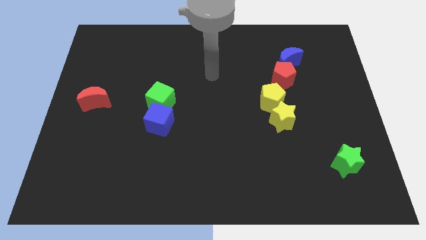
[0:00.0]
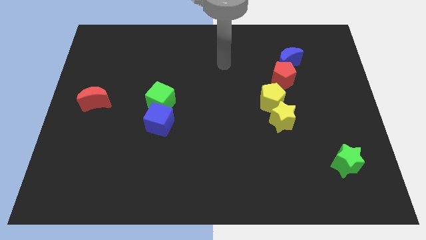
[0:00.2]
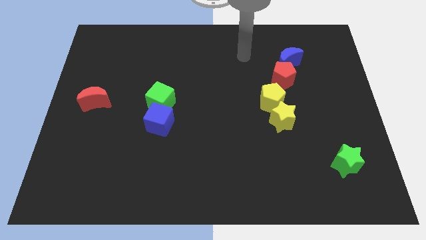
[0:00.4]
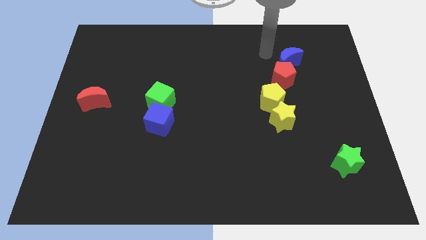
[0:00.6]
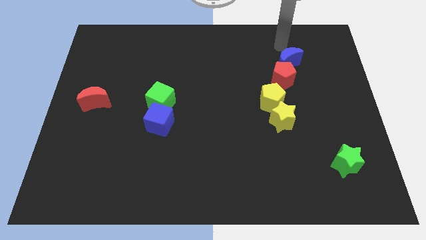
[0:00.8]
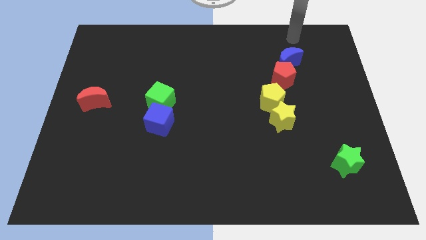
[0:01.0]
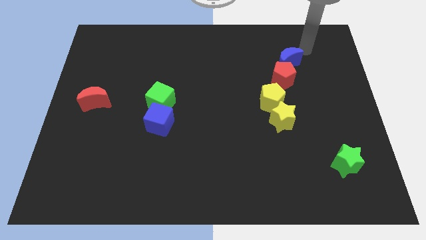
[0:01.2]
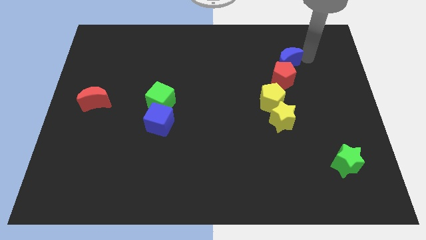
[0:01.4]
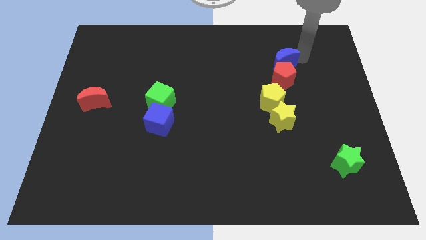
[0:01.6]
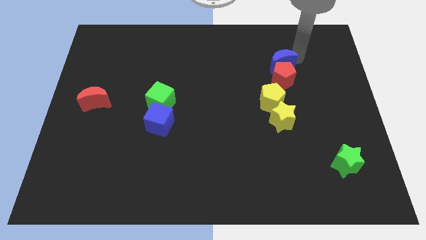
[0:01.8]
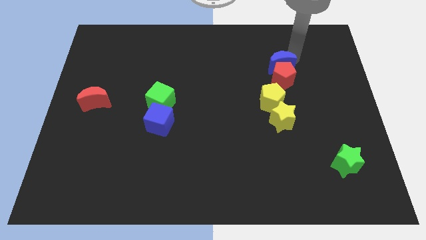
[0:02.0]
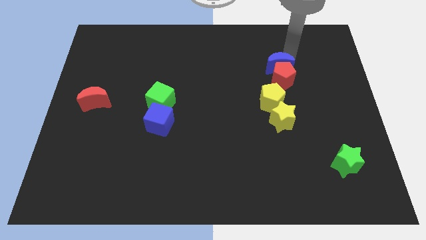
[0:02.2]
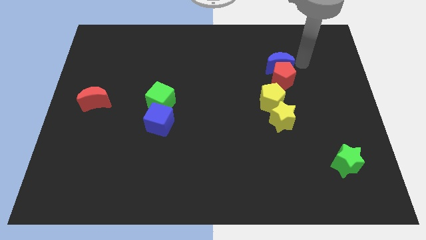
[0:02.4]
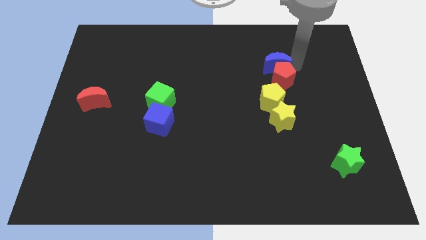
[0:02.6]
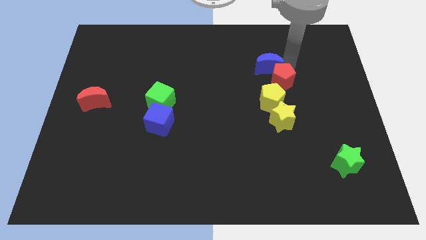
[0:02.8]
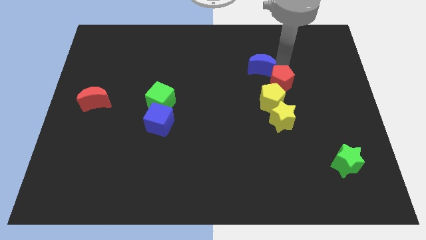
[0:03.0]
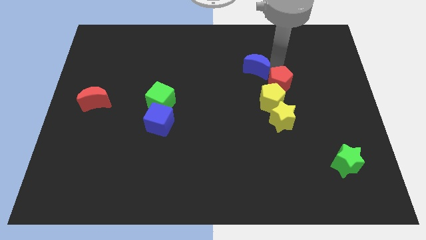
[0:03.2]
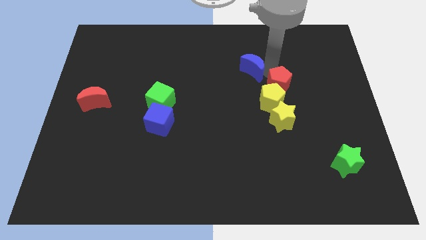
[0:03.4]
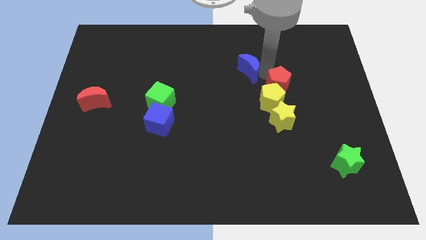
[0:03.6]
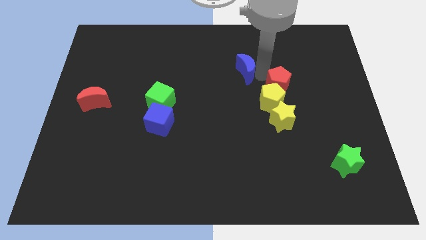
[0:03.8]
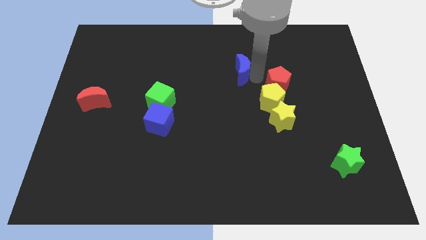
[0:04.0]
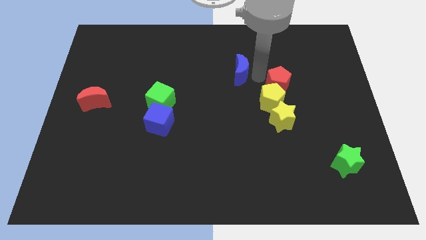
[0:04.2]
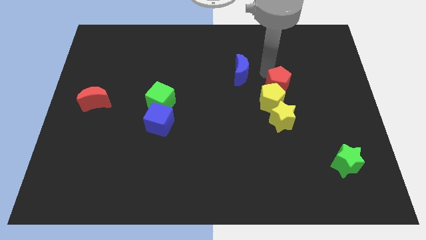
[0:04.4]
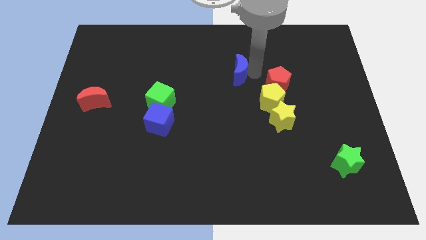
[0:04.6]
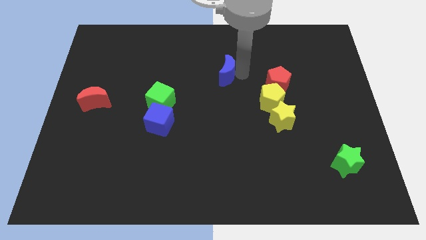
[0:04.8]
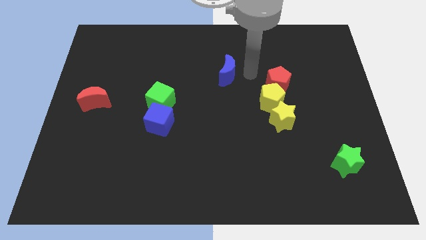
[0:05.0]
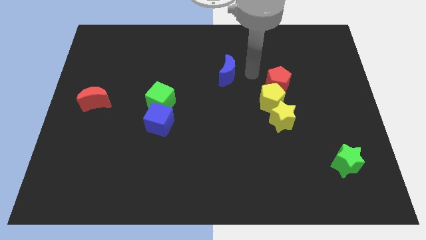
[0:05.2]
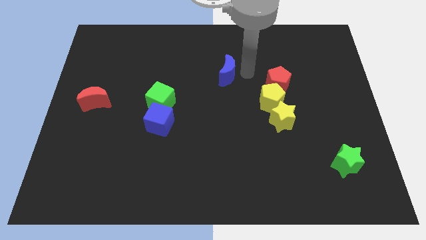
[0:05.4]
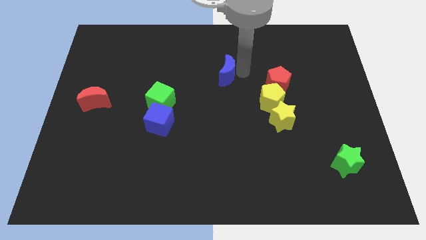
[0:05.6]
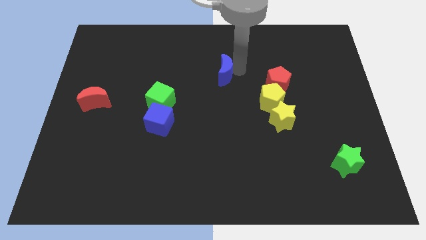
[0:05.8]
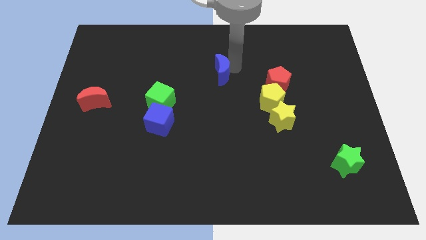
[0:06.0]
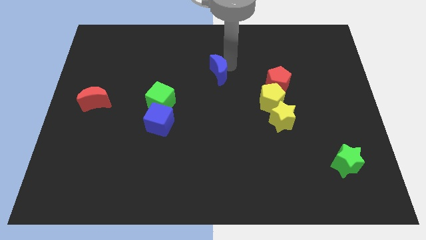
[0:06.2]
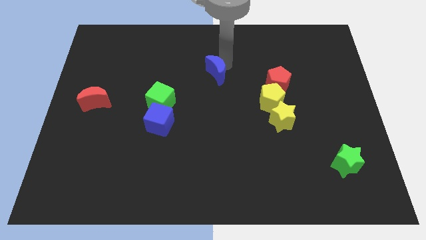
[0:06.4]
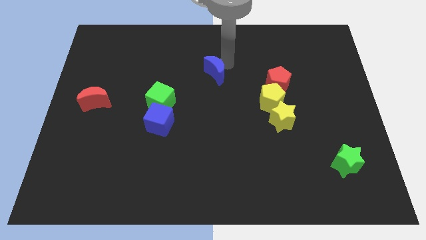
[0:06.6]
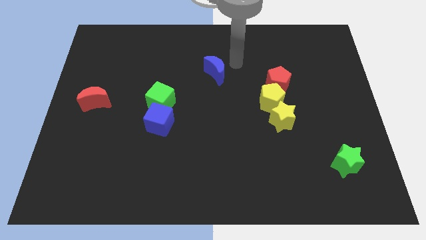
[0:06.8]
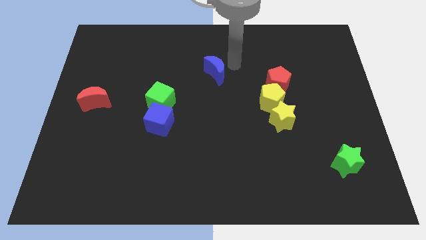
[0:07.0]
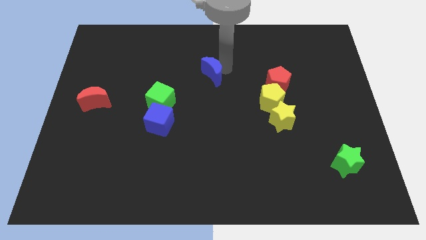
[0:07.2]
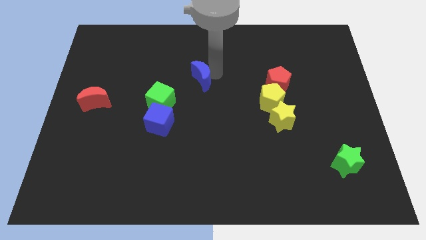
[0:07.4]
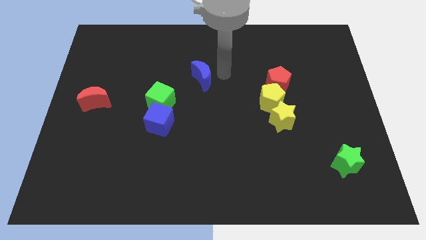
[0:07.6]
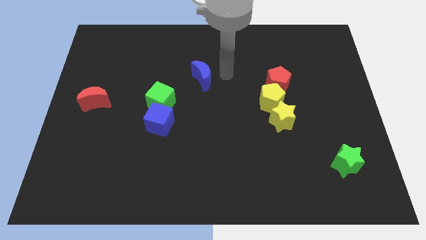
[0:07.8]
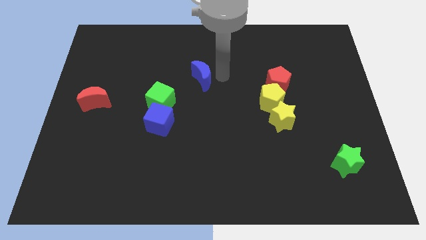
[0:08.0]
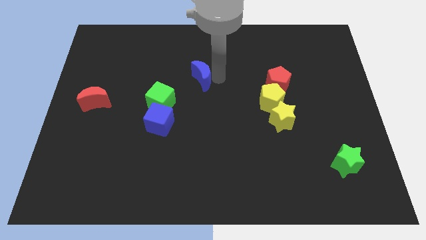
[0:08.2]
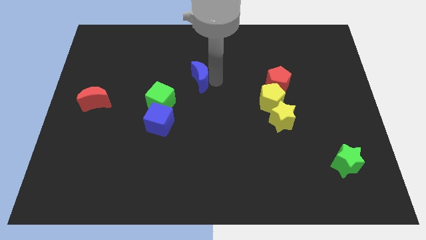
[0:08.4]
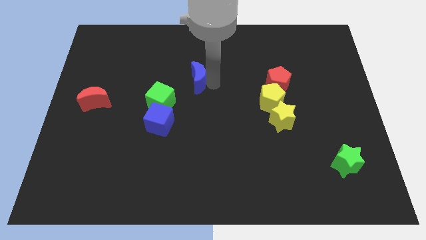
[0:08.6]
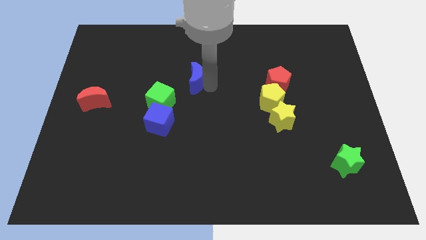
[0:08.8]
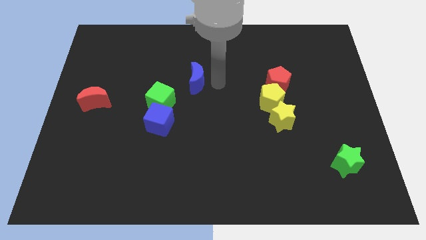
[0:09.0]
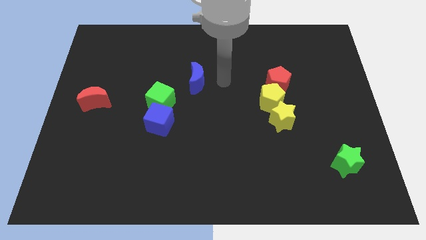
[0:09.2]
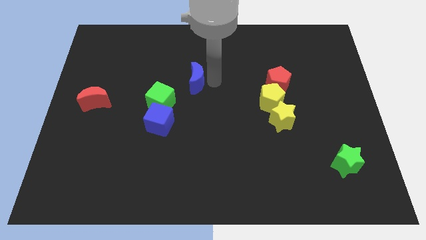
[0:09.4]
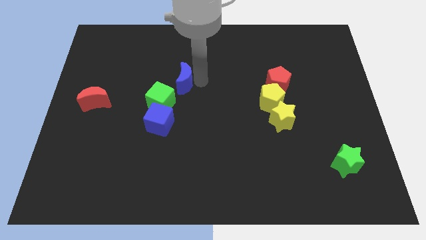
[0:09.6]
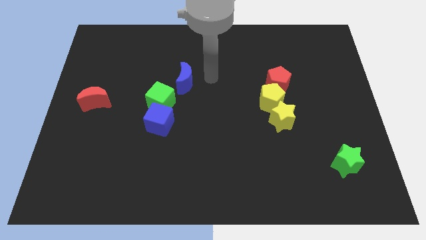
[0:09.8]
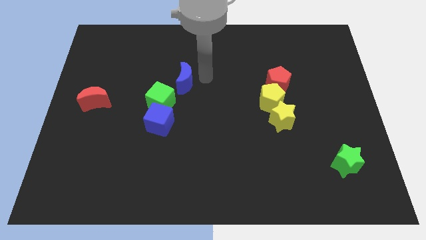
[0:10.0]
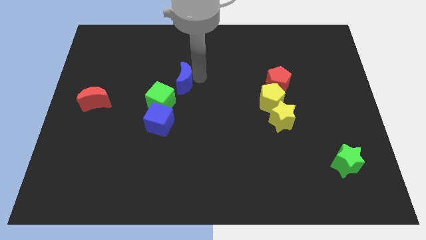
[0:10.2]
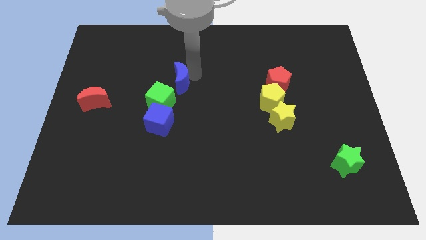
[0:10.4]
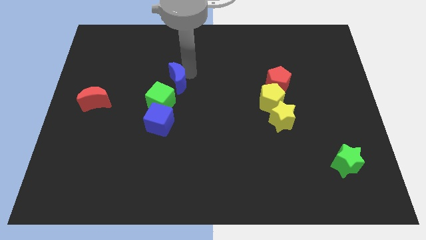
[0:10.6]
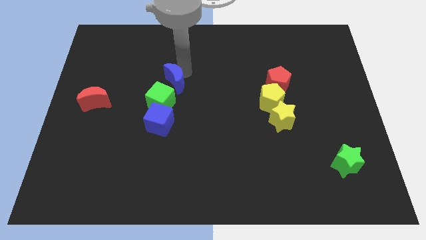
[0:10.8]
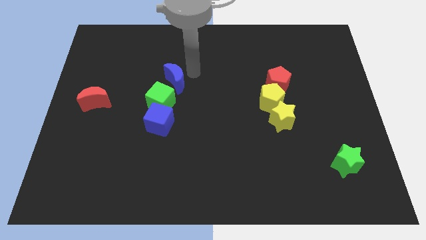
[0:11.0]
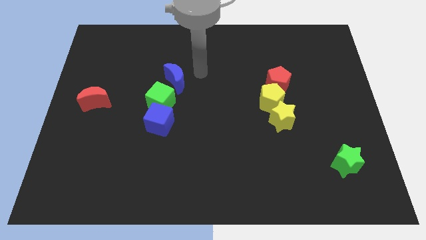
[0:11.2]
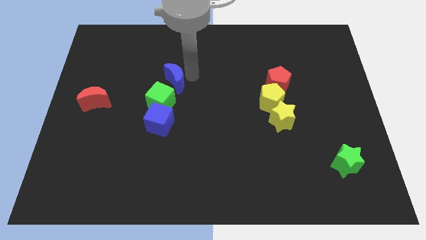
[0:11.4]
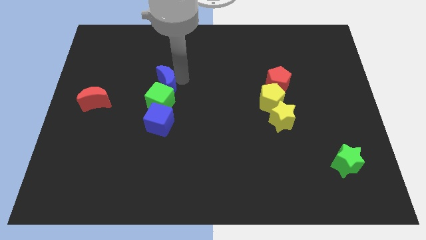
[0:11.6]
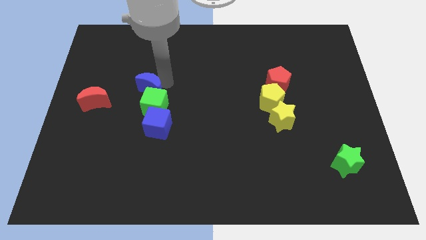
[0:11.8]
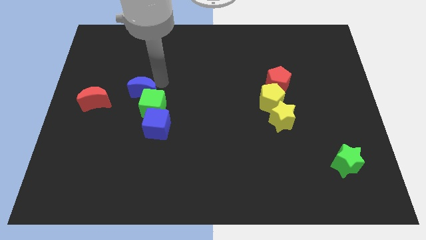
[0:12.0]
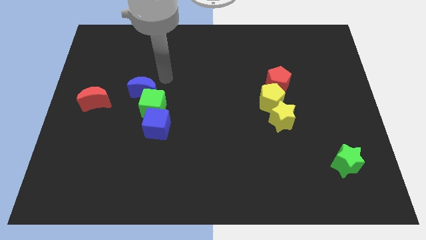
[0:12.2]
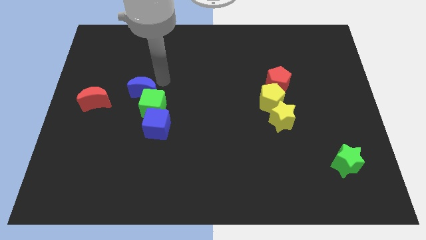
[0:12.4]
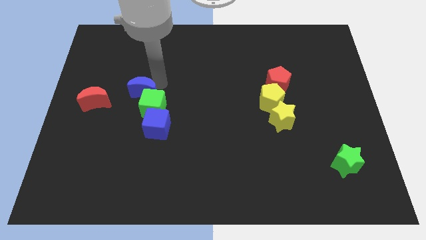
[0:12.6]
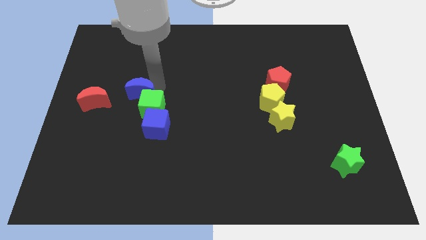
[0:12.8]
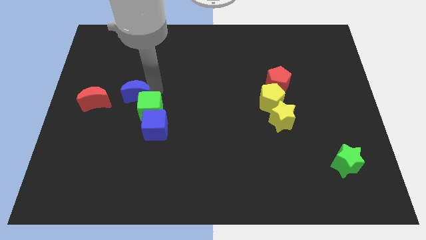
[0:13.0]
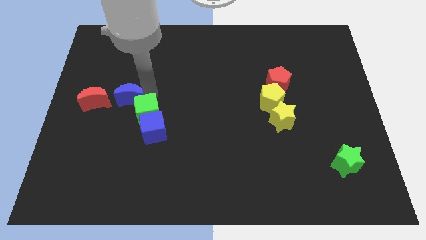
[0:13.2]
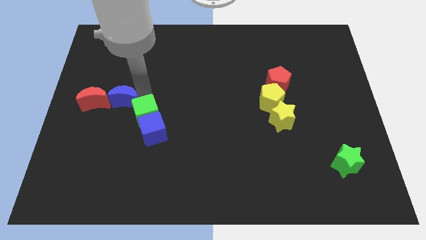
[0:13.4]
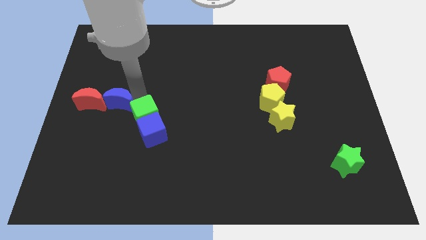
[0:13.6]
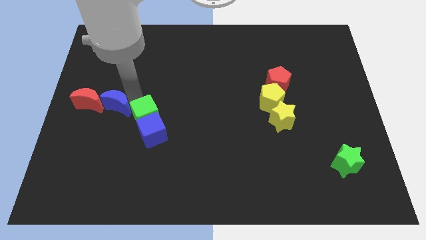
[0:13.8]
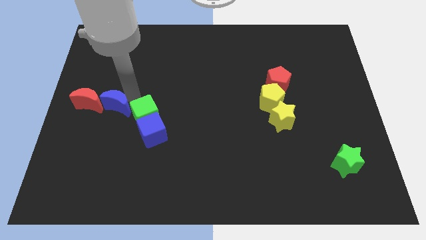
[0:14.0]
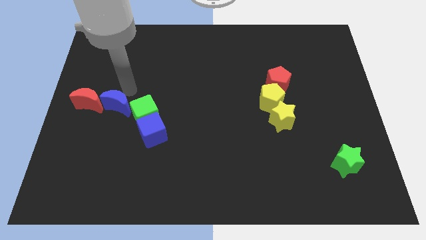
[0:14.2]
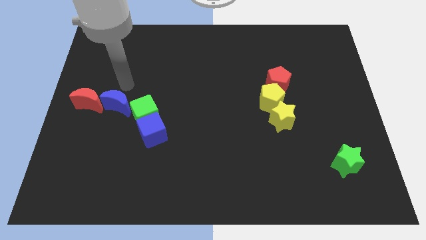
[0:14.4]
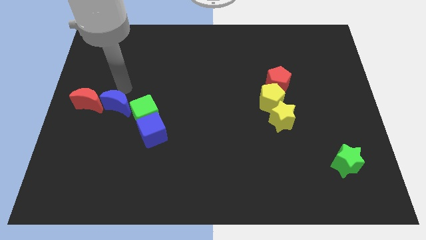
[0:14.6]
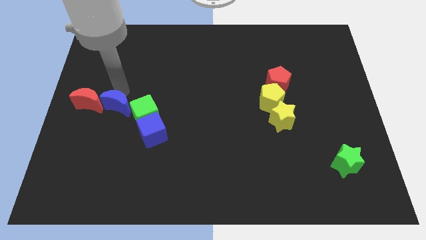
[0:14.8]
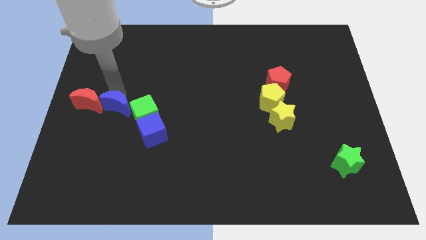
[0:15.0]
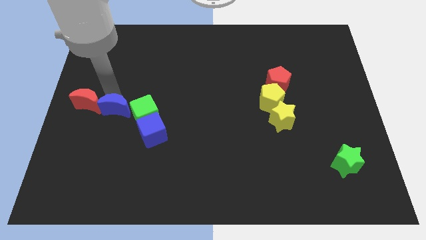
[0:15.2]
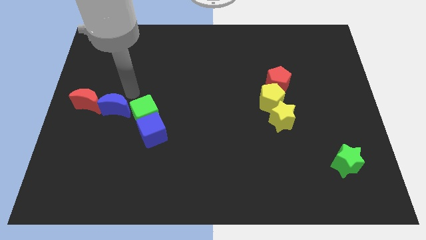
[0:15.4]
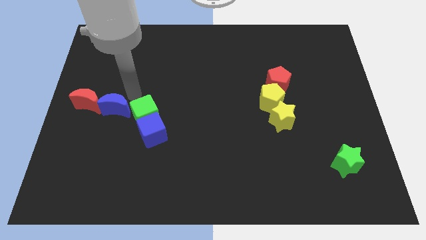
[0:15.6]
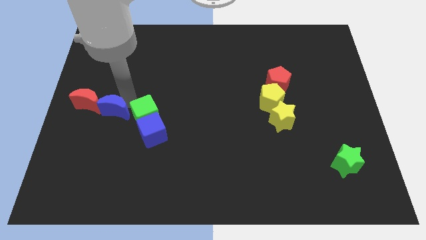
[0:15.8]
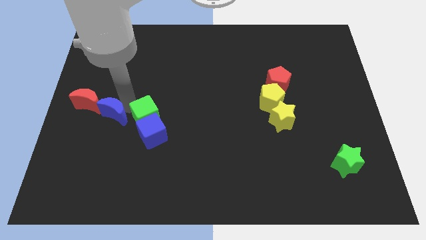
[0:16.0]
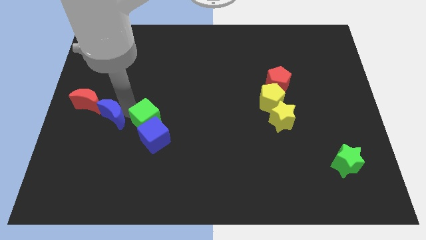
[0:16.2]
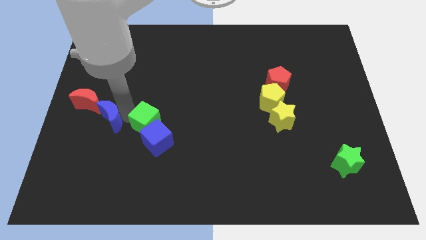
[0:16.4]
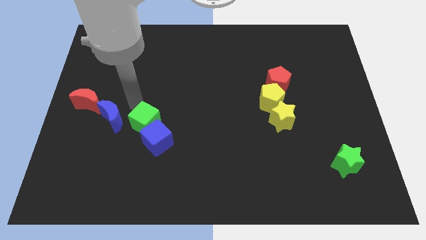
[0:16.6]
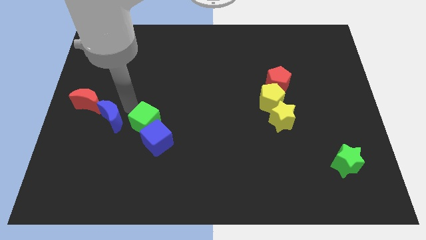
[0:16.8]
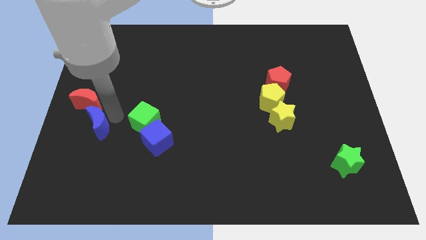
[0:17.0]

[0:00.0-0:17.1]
put the blue moon below the red moon
